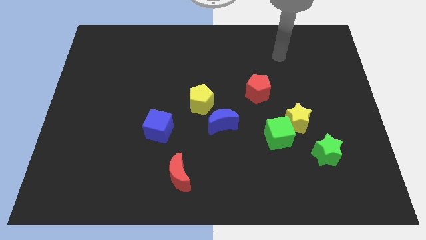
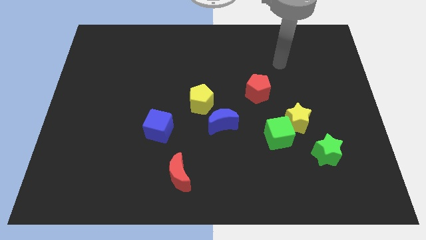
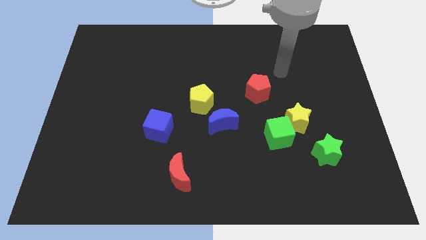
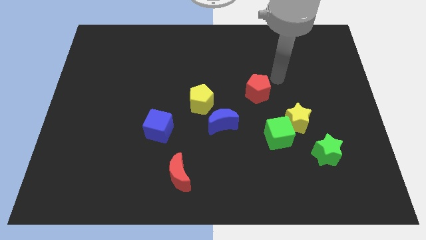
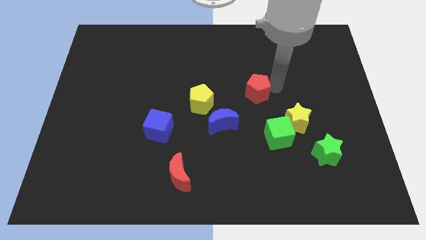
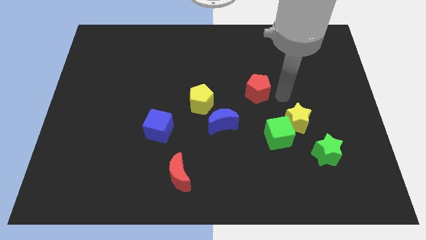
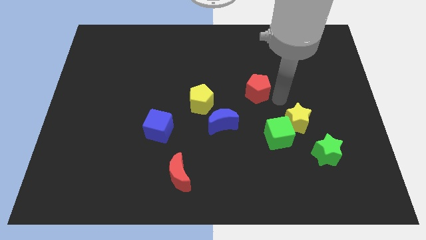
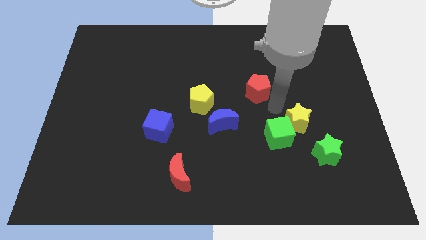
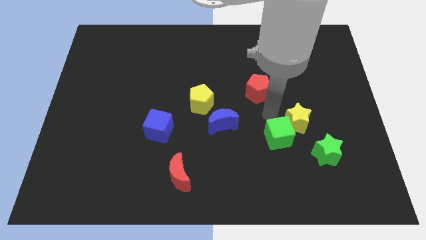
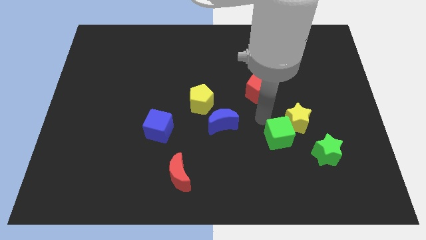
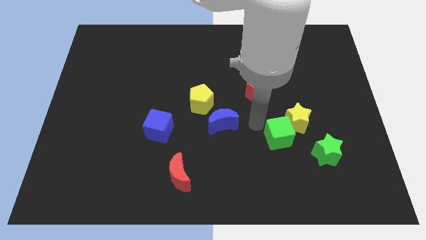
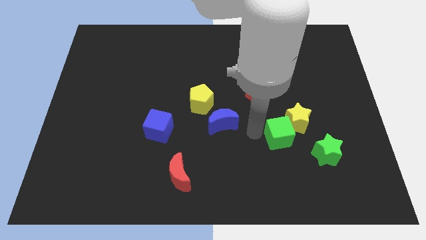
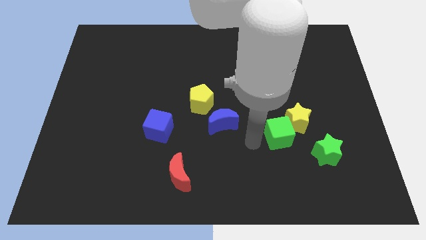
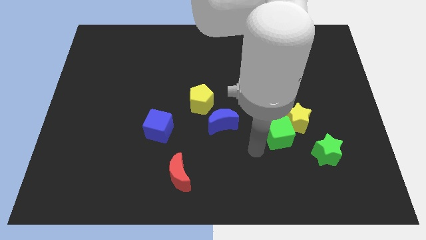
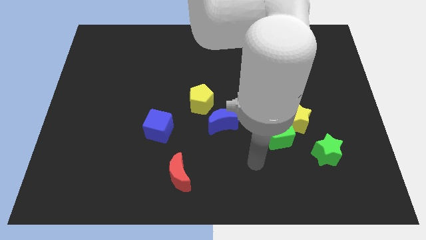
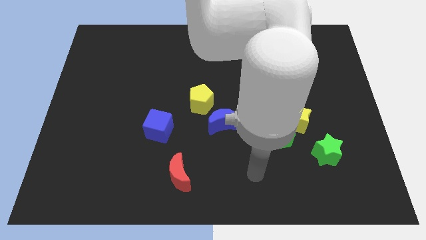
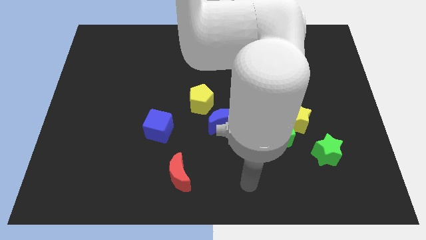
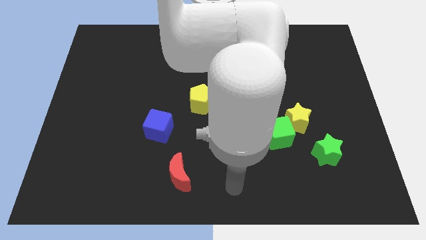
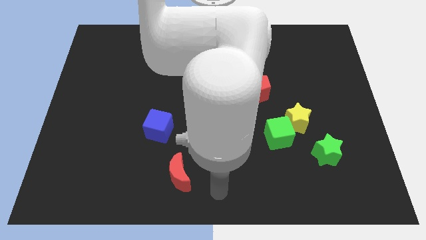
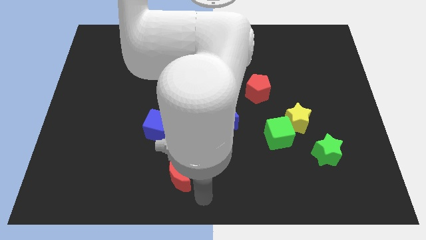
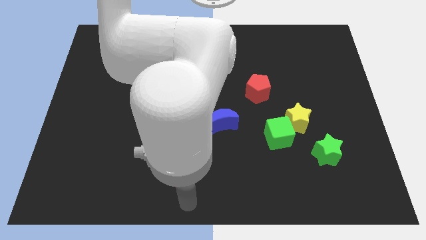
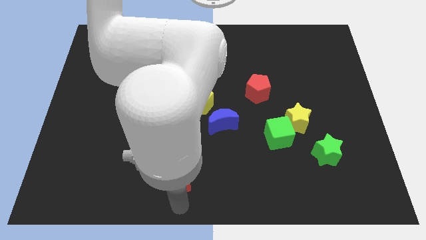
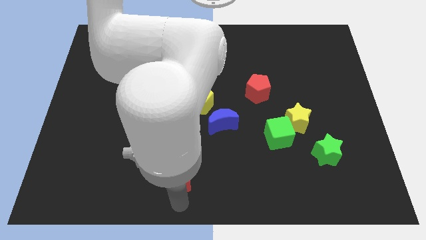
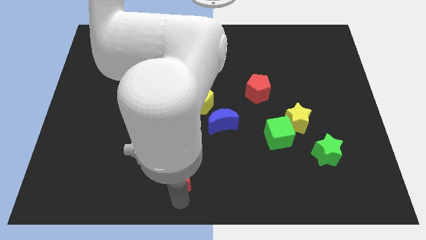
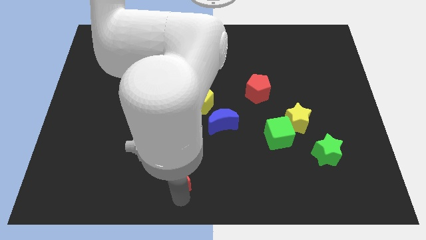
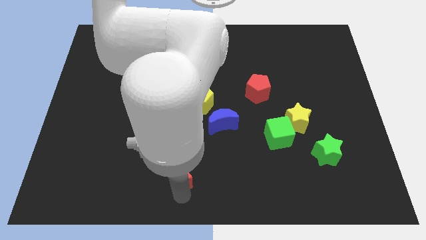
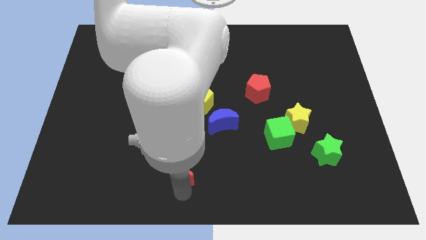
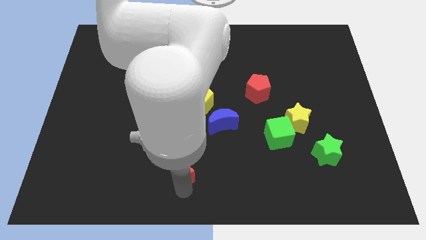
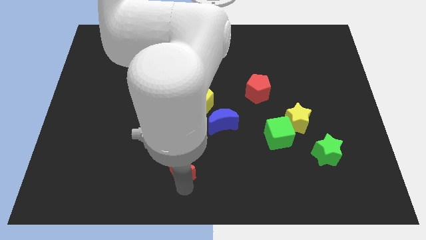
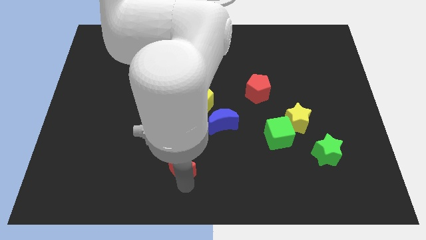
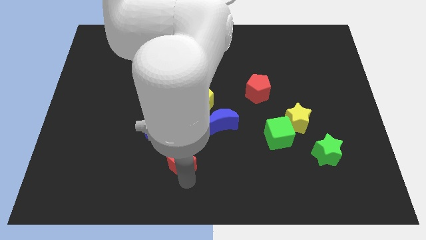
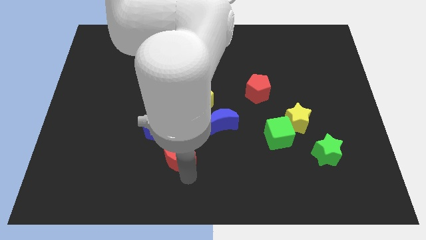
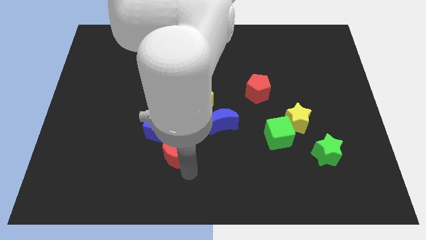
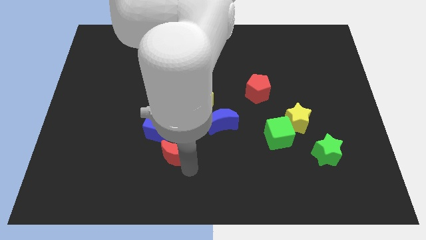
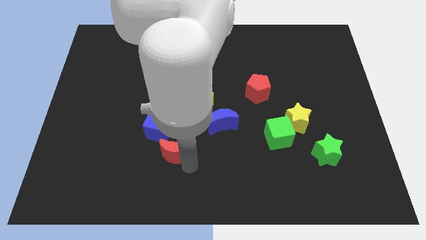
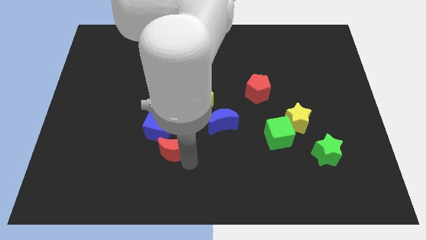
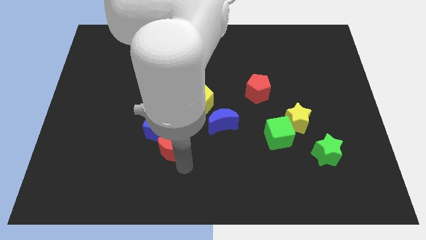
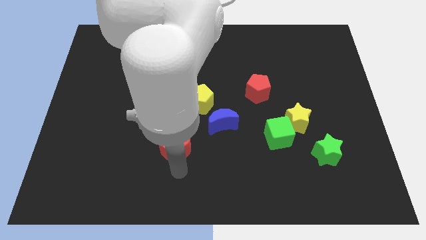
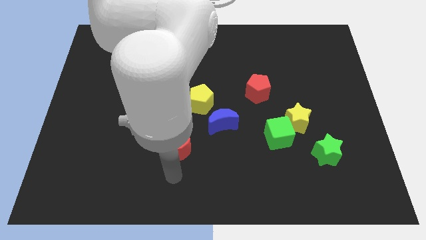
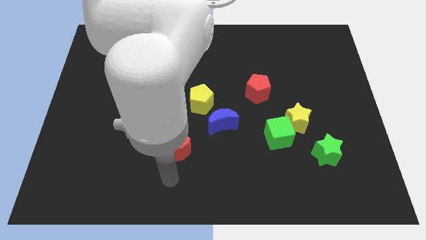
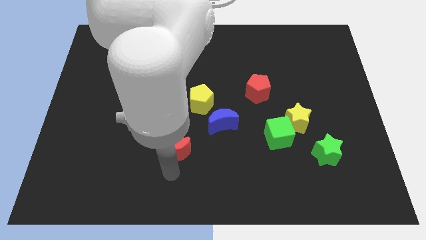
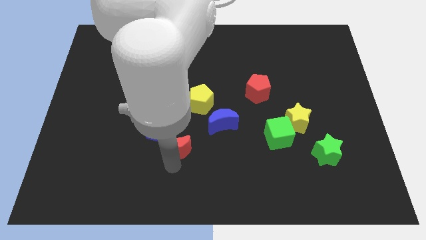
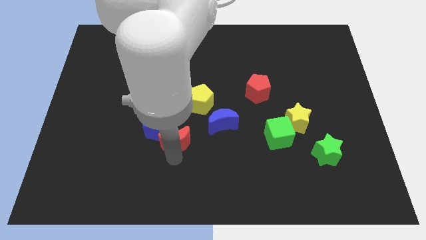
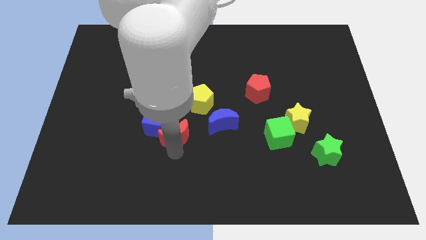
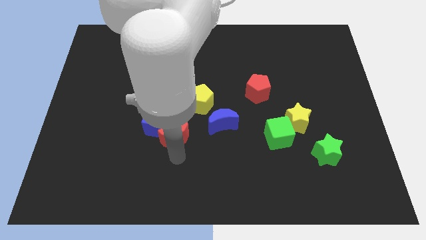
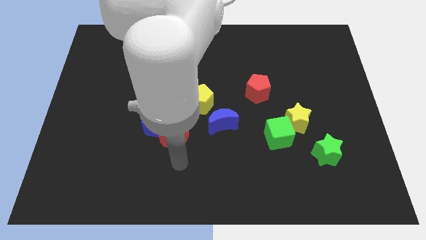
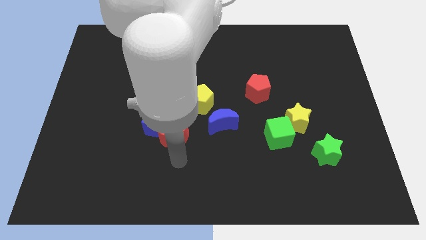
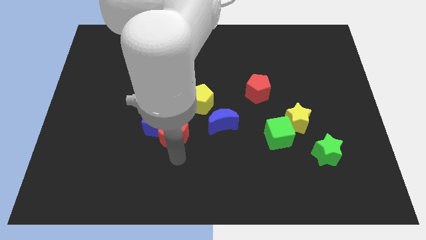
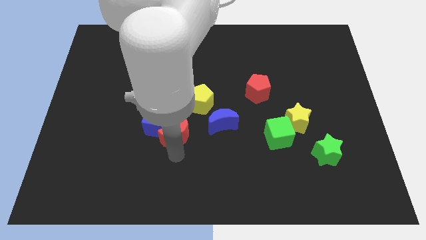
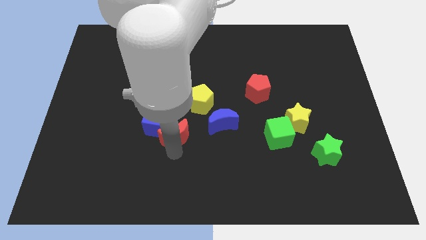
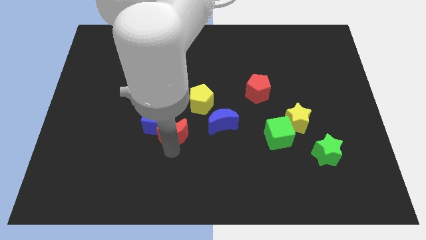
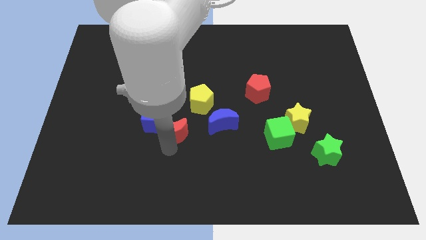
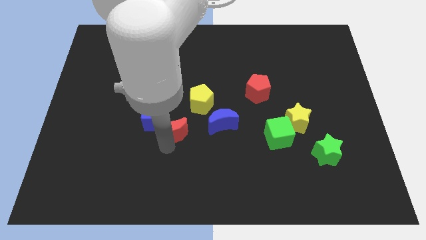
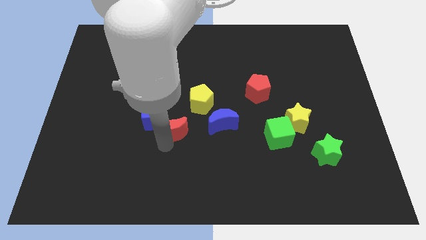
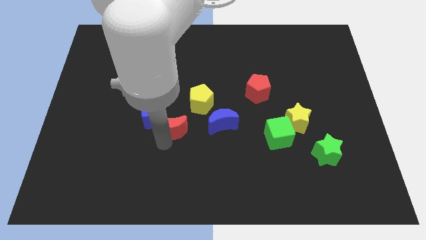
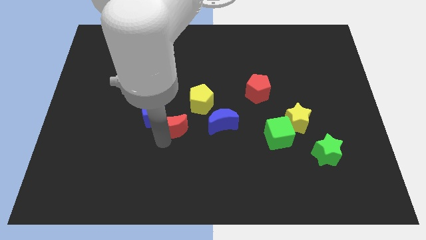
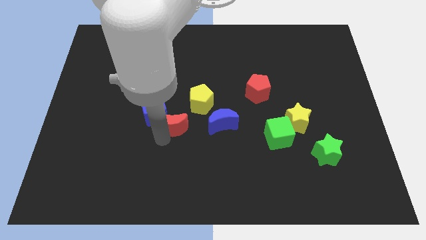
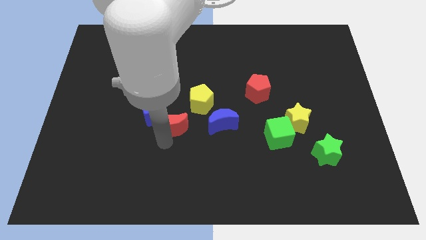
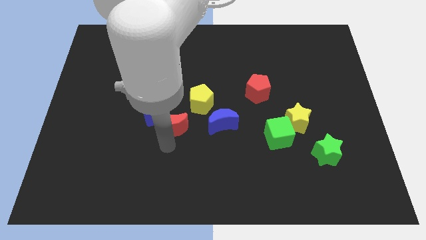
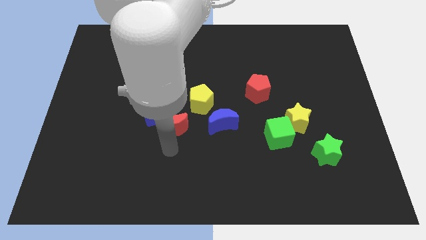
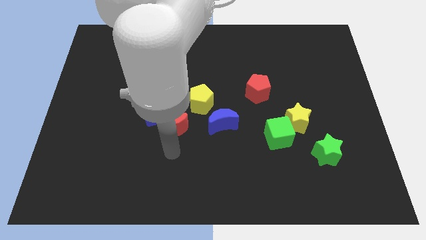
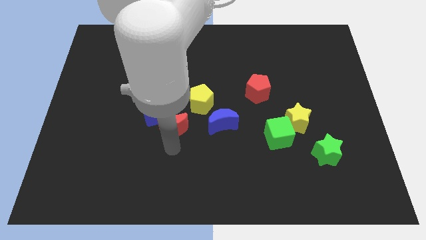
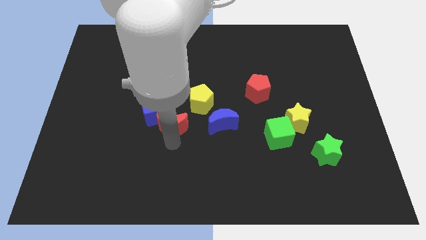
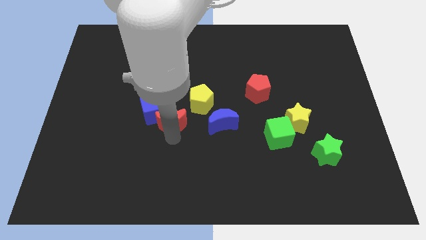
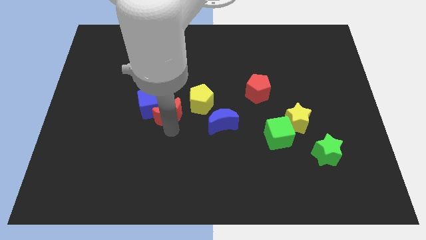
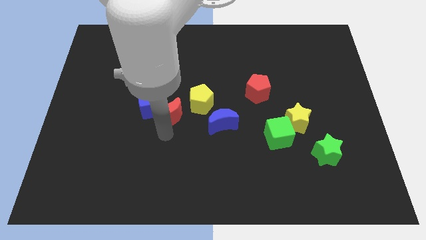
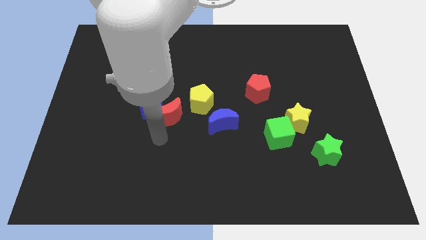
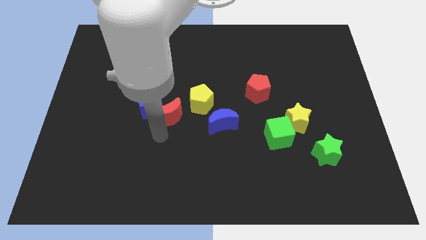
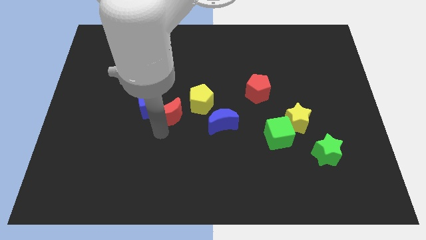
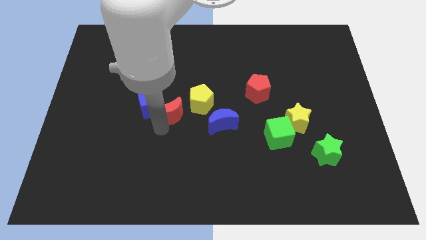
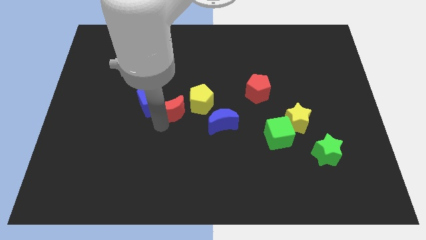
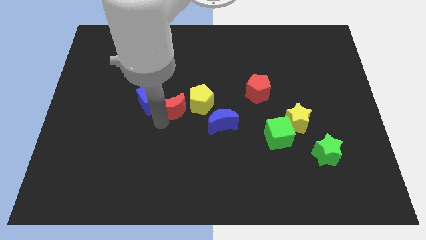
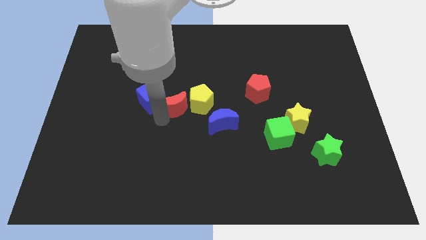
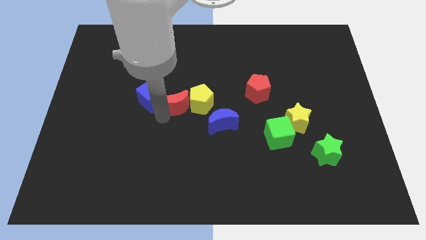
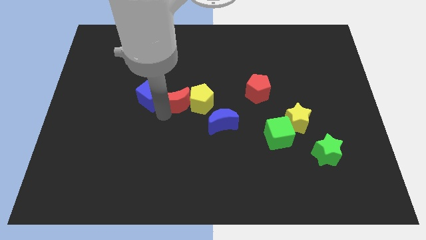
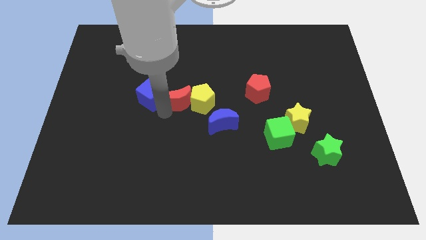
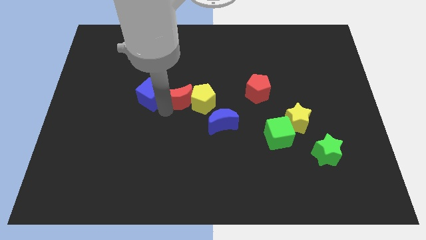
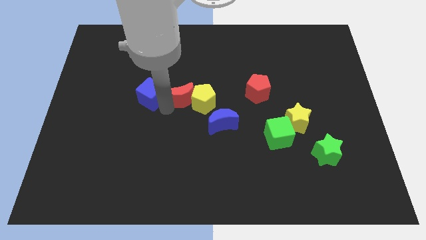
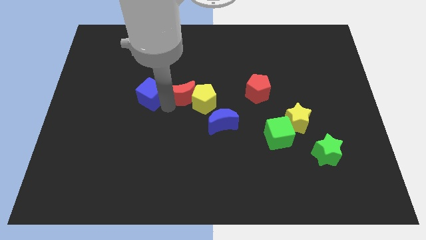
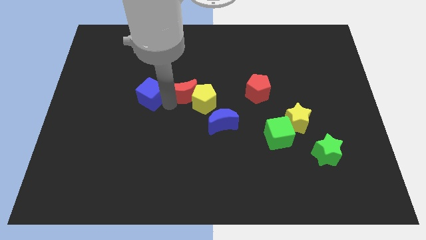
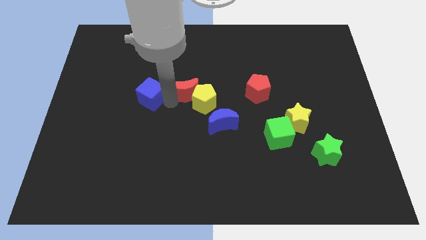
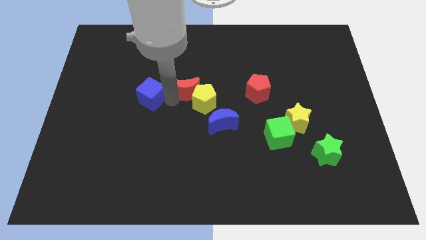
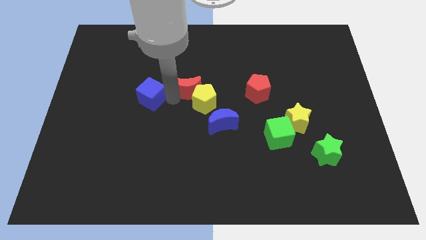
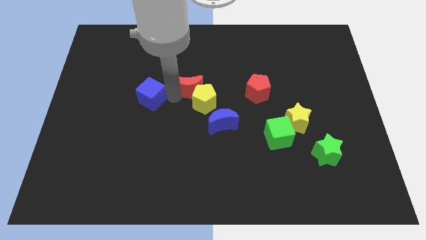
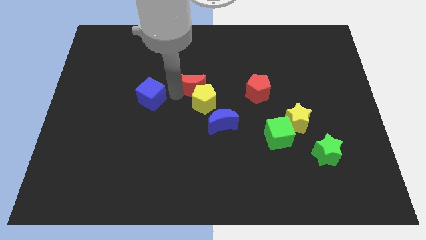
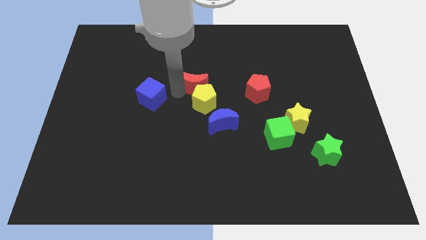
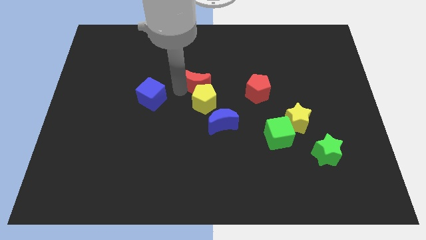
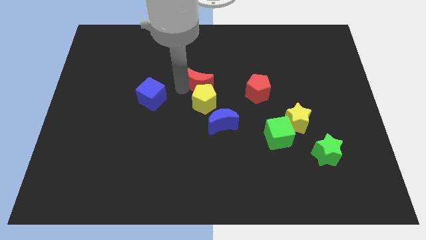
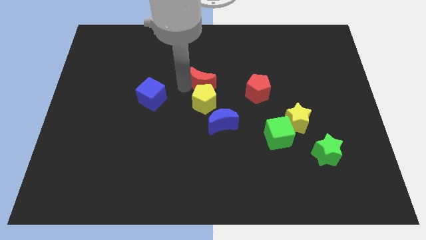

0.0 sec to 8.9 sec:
push the red moon above the blue moon
